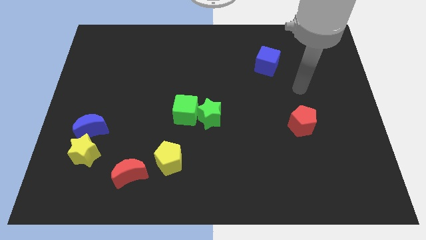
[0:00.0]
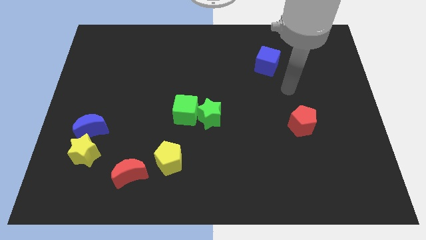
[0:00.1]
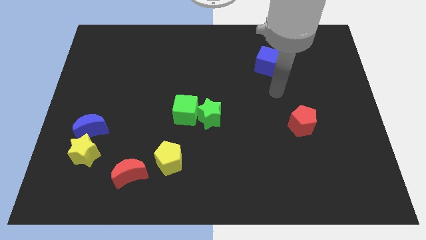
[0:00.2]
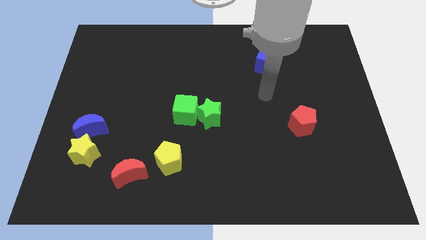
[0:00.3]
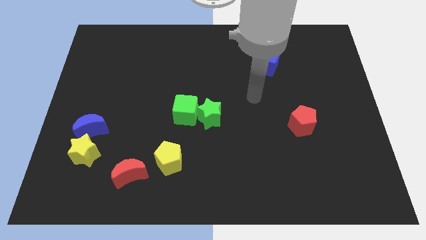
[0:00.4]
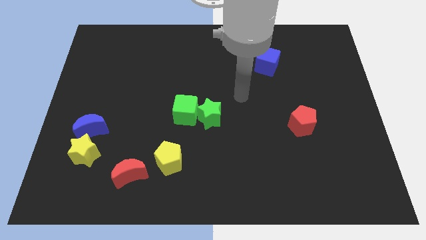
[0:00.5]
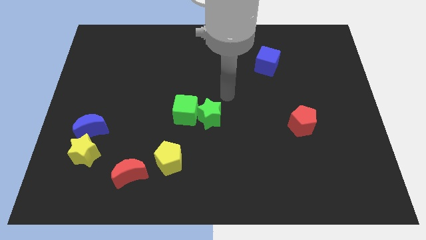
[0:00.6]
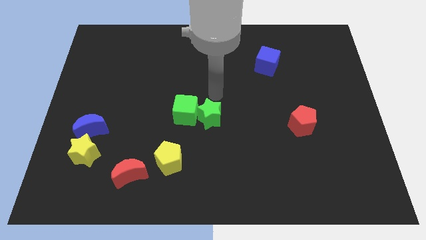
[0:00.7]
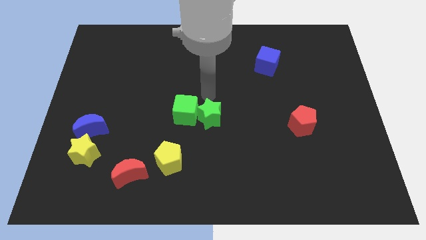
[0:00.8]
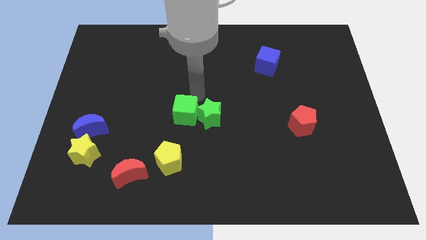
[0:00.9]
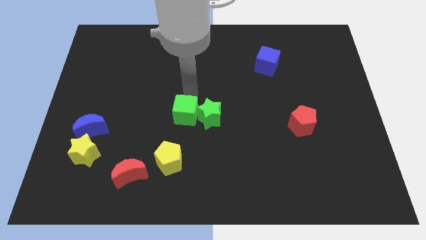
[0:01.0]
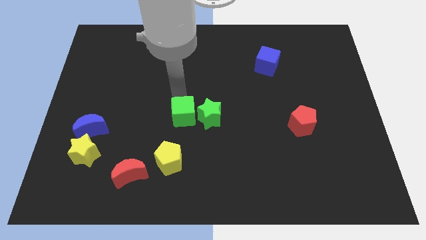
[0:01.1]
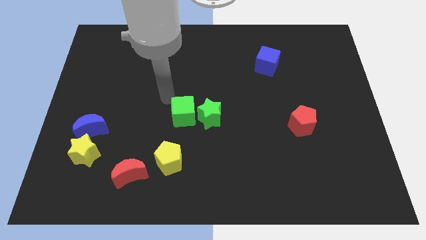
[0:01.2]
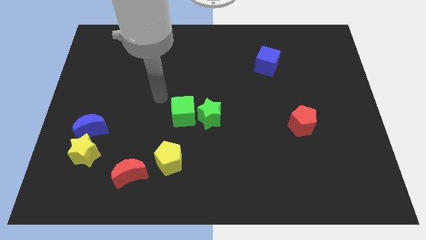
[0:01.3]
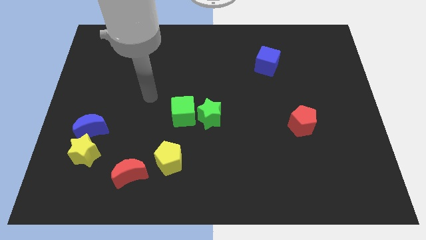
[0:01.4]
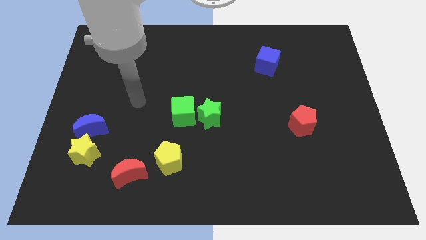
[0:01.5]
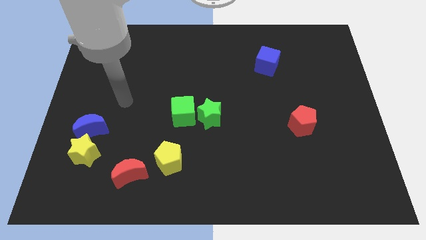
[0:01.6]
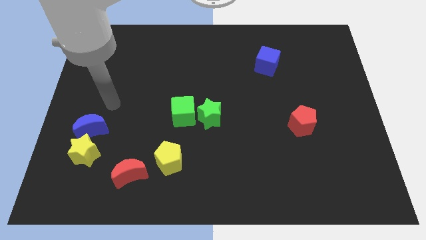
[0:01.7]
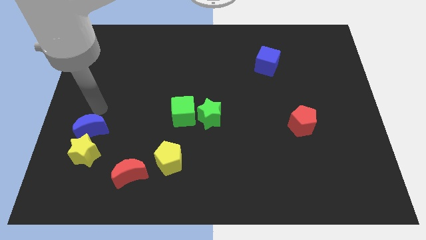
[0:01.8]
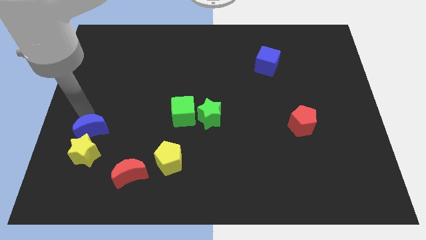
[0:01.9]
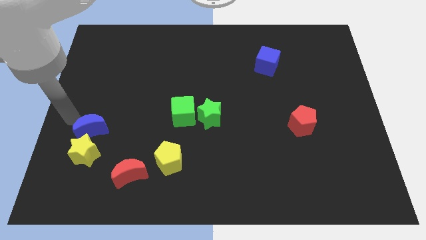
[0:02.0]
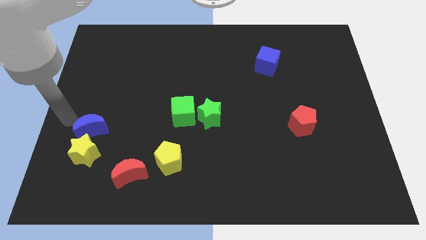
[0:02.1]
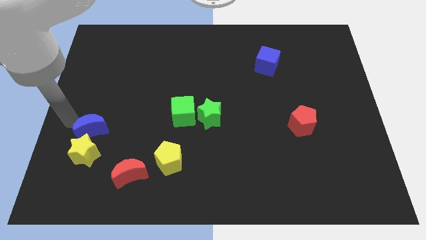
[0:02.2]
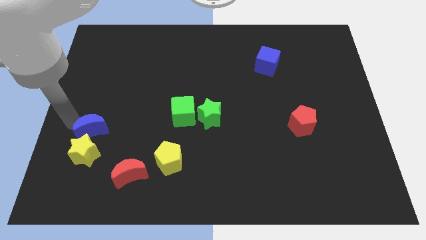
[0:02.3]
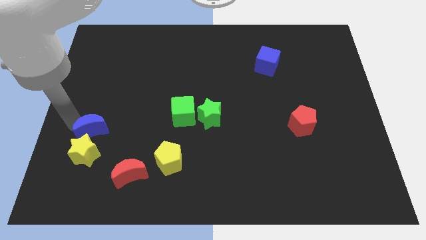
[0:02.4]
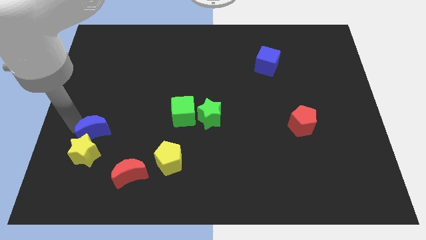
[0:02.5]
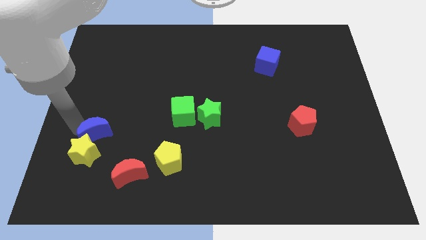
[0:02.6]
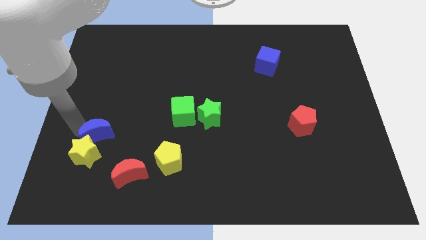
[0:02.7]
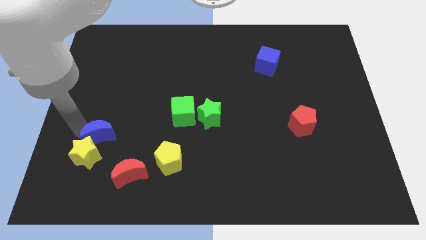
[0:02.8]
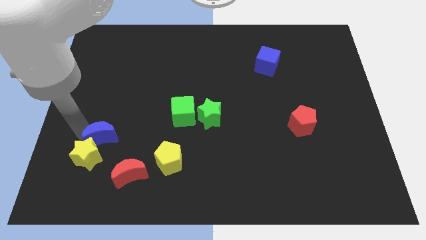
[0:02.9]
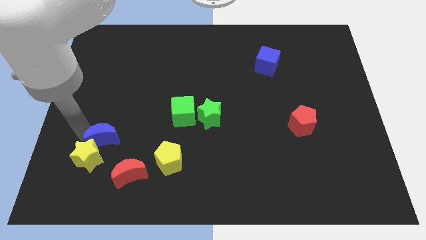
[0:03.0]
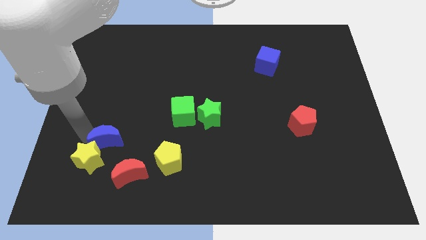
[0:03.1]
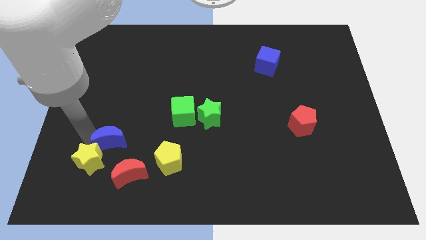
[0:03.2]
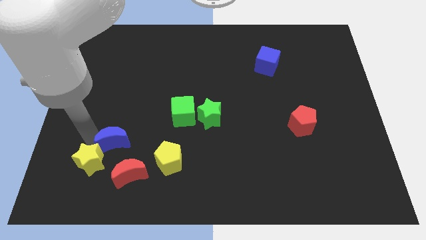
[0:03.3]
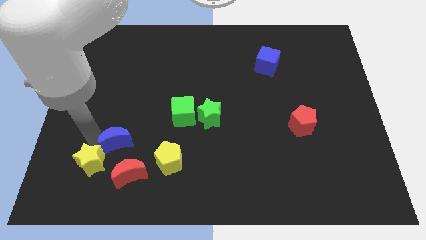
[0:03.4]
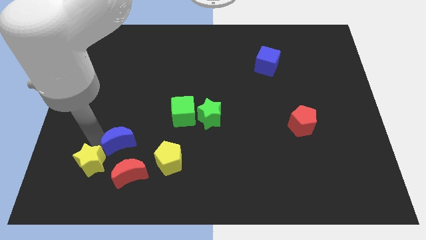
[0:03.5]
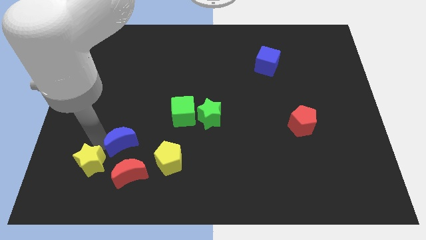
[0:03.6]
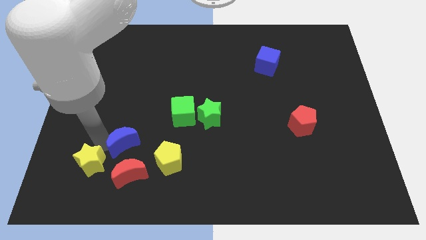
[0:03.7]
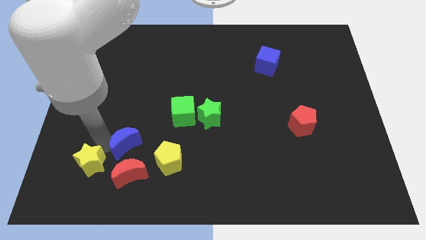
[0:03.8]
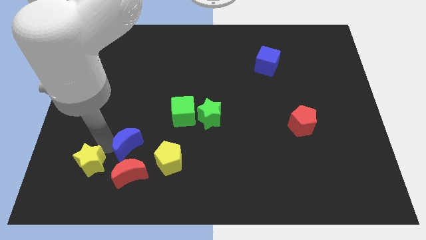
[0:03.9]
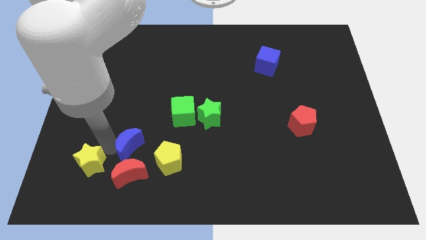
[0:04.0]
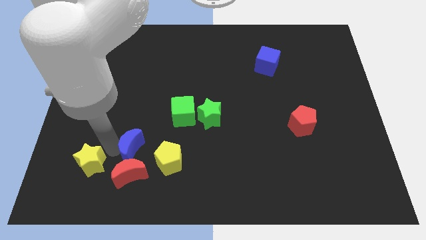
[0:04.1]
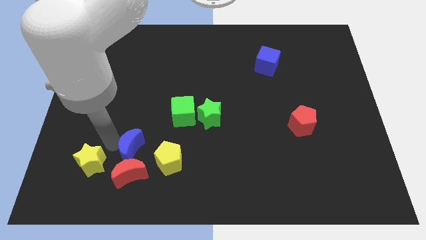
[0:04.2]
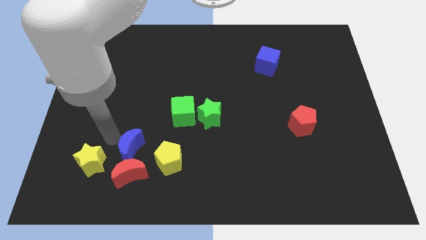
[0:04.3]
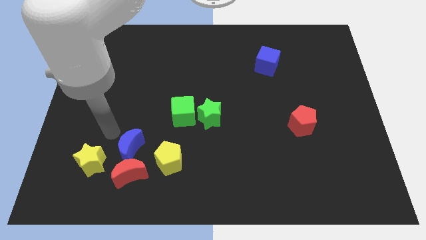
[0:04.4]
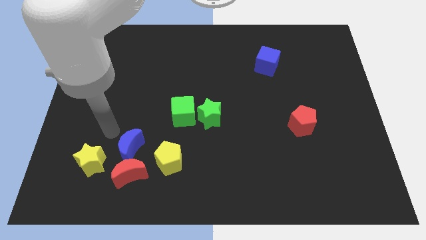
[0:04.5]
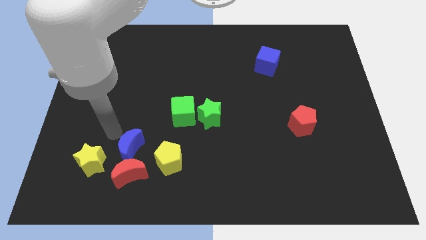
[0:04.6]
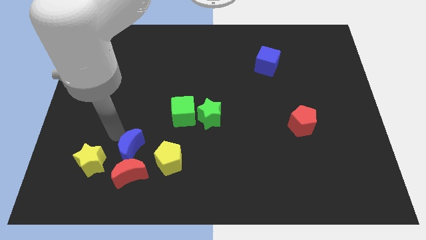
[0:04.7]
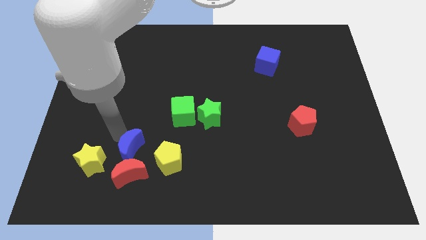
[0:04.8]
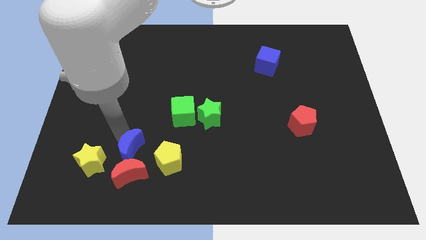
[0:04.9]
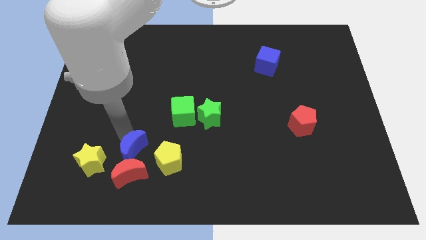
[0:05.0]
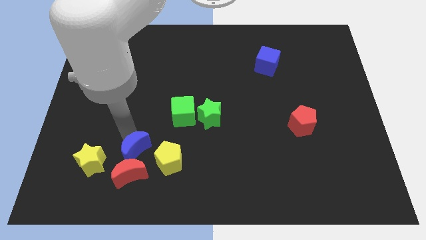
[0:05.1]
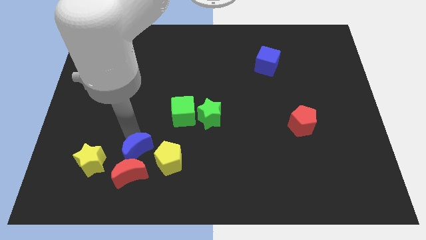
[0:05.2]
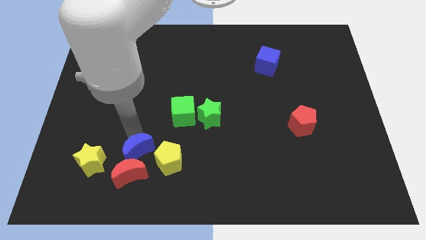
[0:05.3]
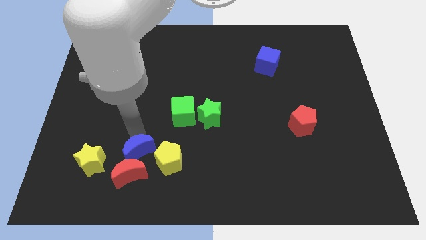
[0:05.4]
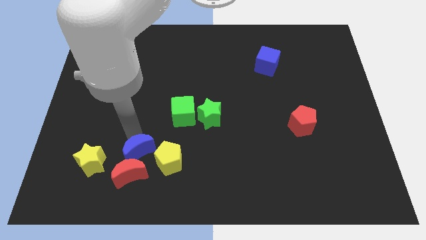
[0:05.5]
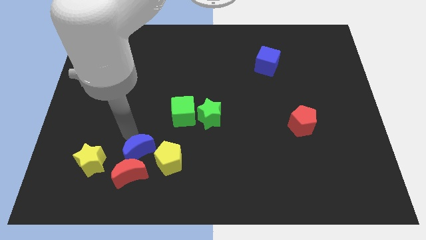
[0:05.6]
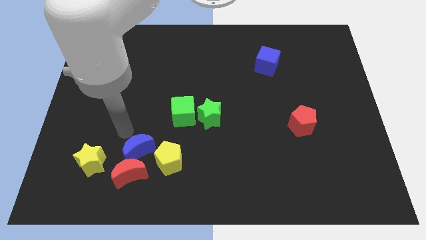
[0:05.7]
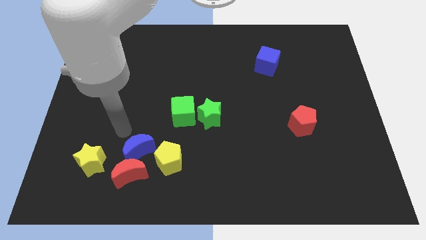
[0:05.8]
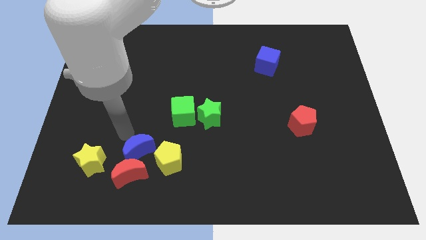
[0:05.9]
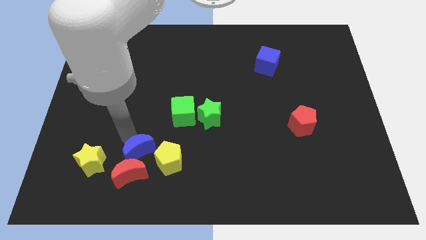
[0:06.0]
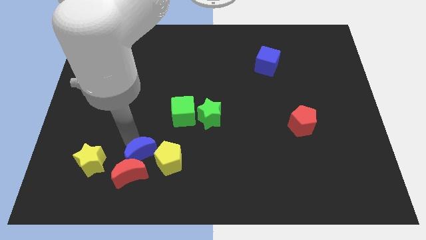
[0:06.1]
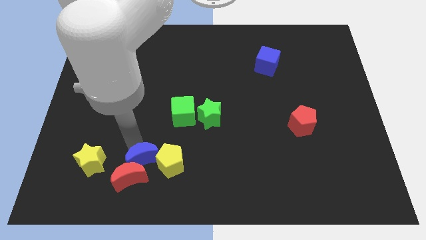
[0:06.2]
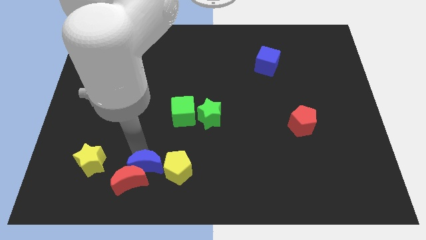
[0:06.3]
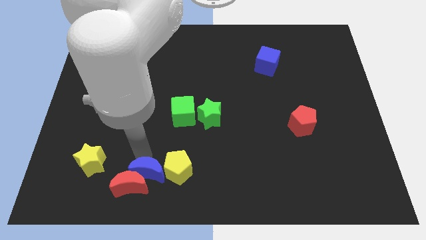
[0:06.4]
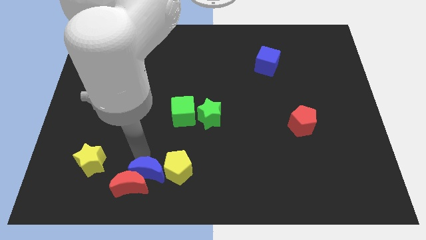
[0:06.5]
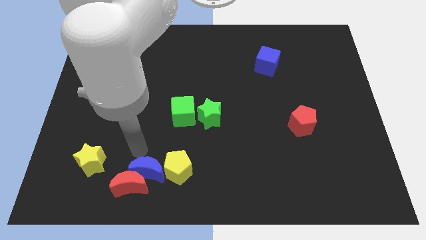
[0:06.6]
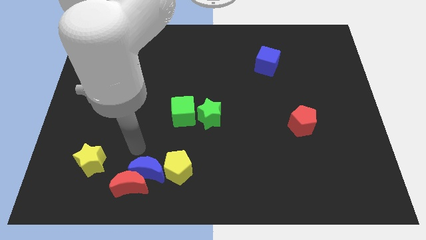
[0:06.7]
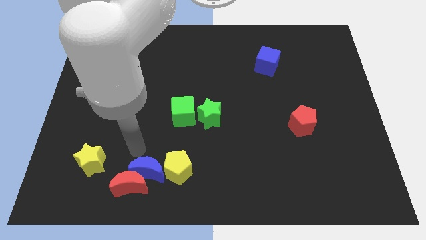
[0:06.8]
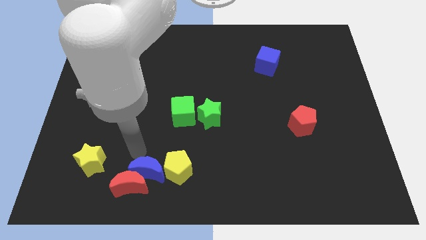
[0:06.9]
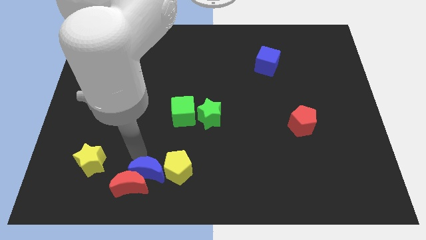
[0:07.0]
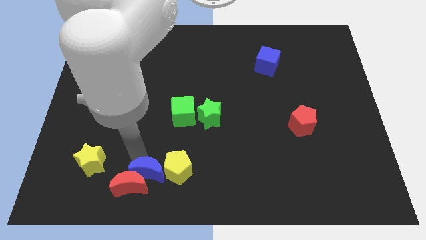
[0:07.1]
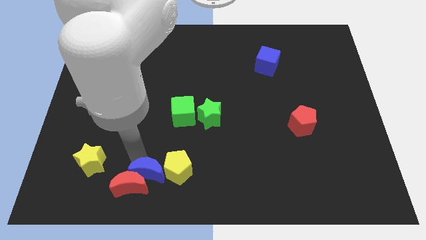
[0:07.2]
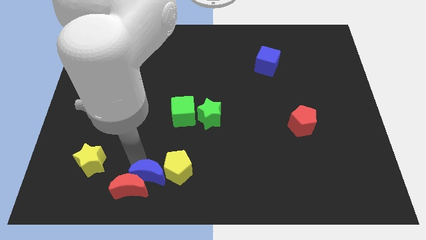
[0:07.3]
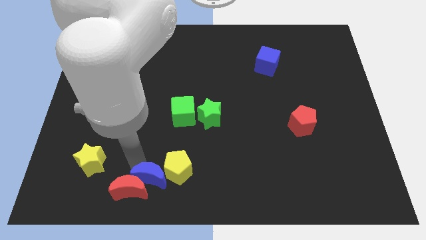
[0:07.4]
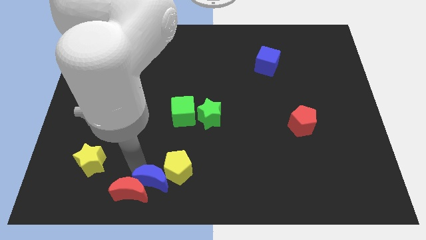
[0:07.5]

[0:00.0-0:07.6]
move the blue moon to the bottom
